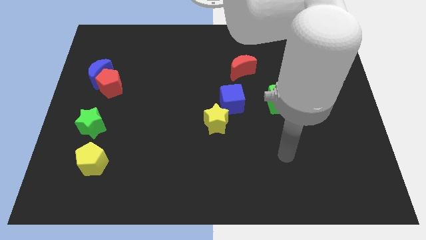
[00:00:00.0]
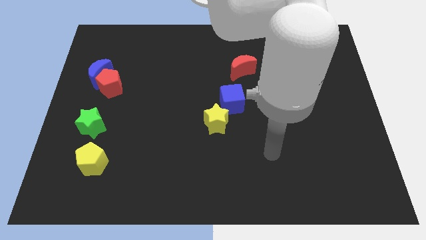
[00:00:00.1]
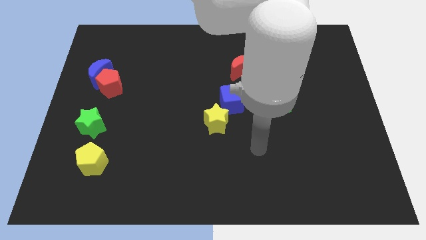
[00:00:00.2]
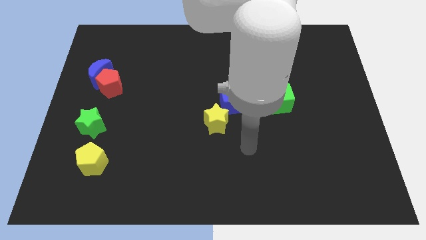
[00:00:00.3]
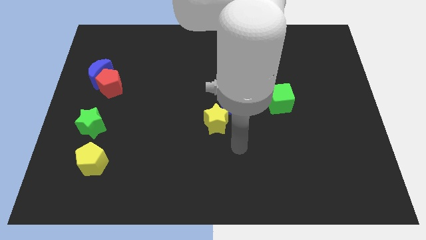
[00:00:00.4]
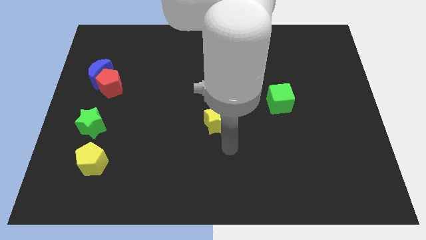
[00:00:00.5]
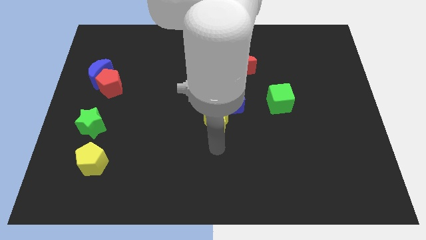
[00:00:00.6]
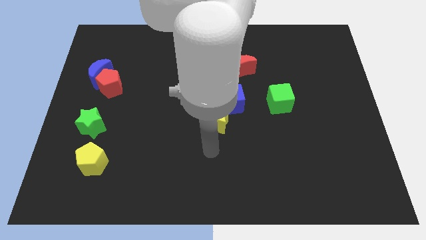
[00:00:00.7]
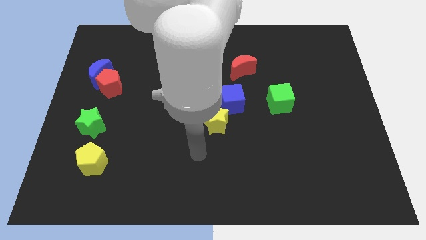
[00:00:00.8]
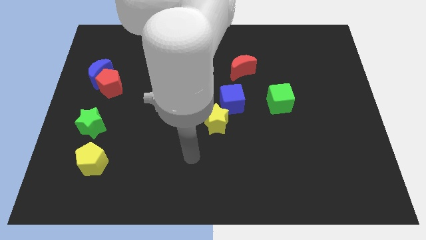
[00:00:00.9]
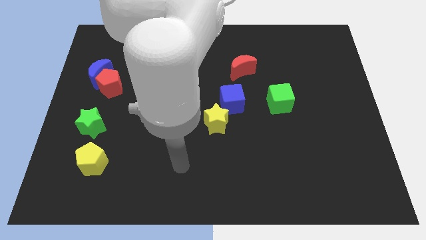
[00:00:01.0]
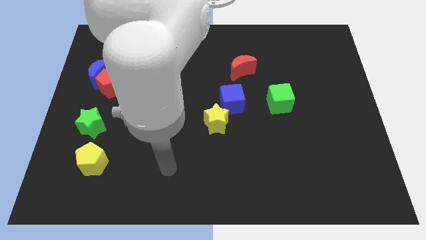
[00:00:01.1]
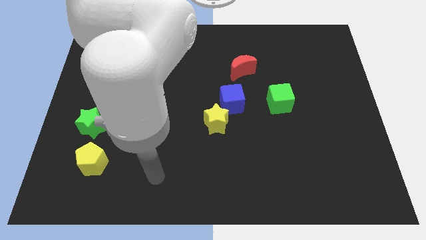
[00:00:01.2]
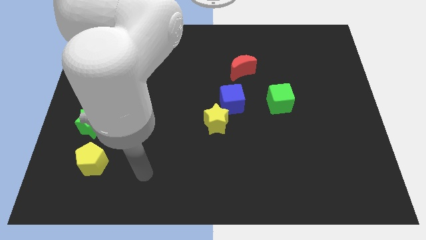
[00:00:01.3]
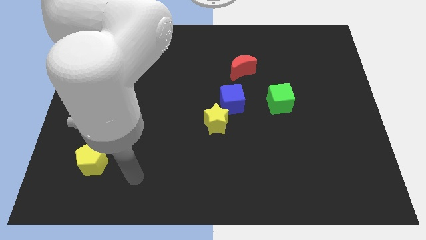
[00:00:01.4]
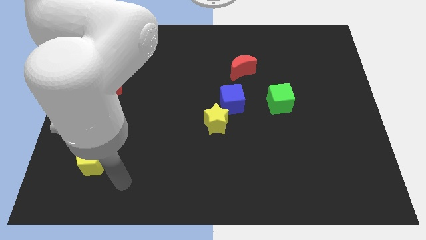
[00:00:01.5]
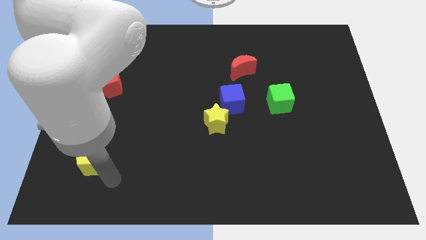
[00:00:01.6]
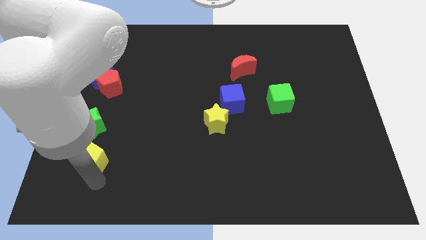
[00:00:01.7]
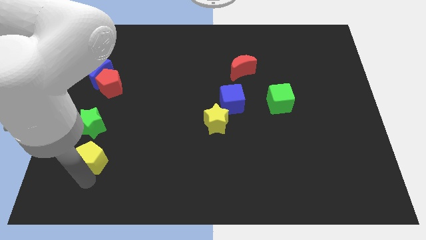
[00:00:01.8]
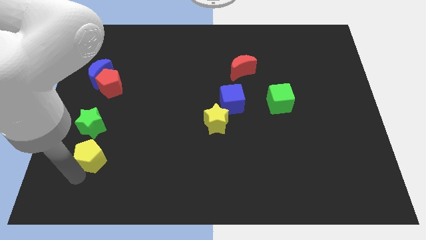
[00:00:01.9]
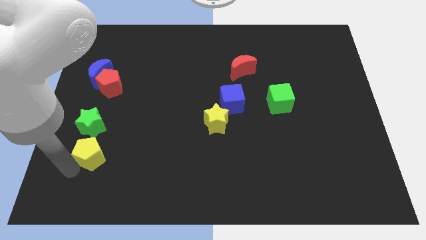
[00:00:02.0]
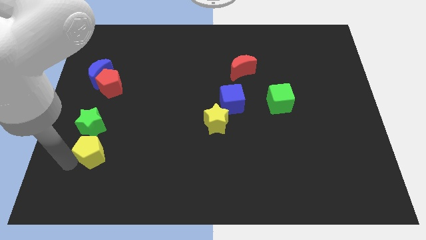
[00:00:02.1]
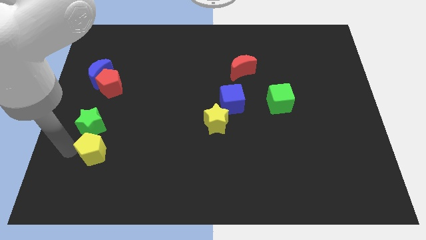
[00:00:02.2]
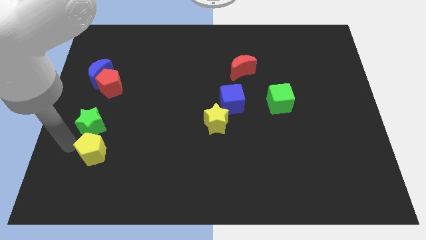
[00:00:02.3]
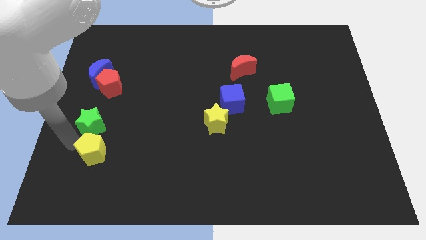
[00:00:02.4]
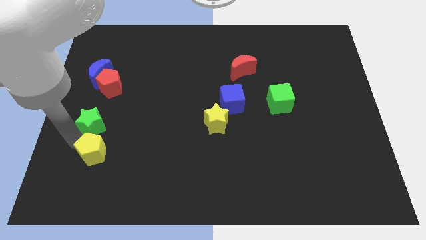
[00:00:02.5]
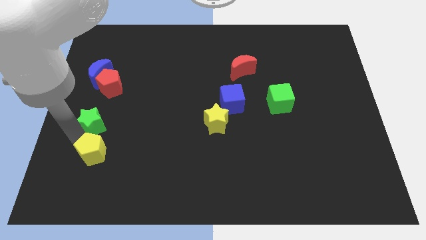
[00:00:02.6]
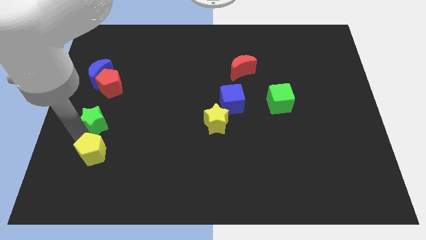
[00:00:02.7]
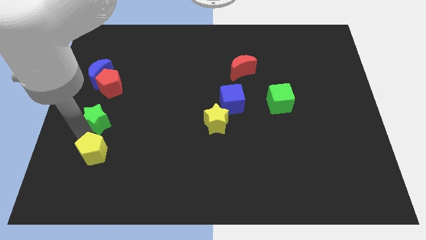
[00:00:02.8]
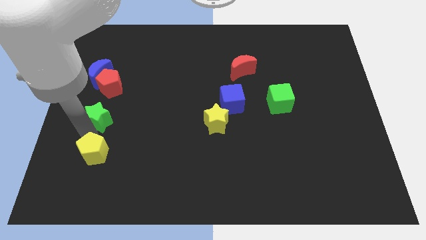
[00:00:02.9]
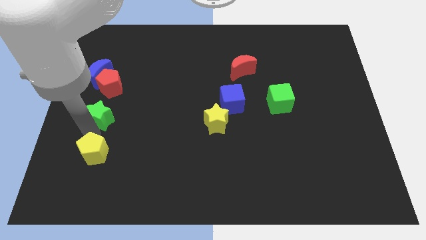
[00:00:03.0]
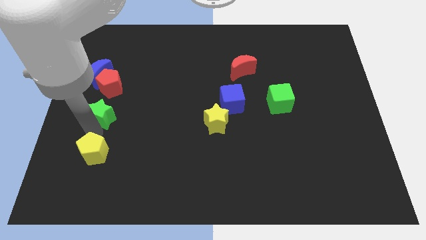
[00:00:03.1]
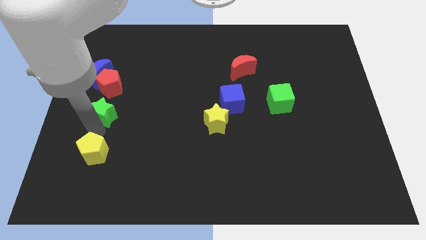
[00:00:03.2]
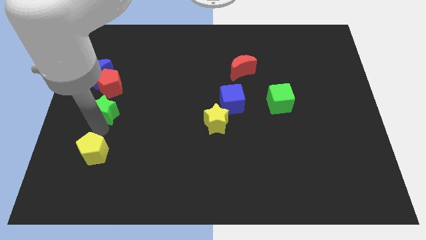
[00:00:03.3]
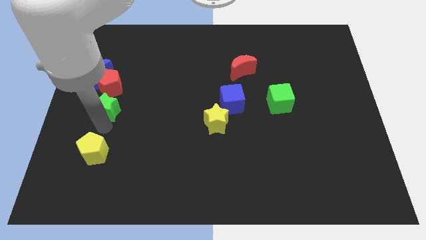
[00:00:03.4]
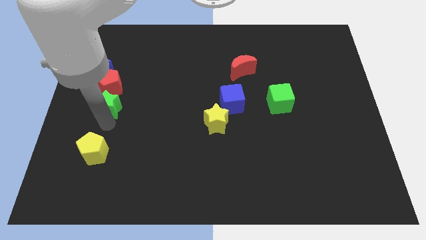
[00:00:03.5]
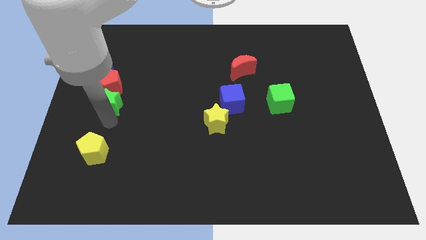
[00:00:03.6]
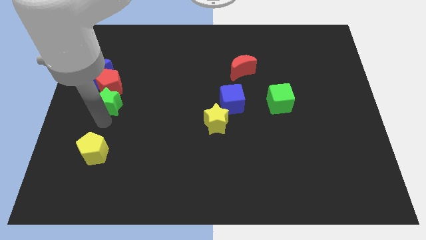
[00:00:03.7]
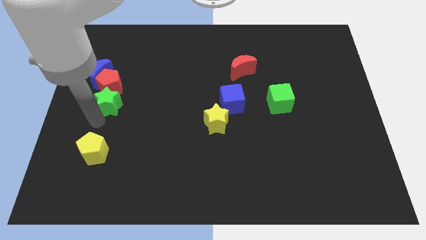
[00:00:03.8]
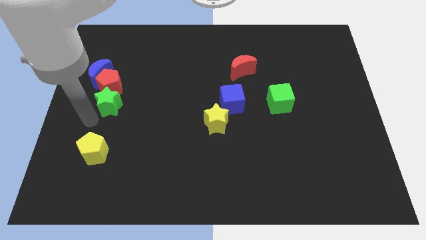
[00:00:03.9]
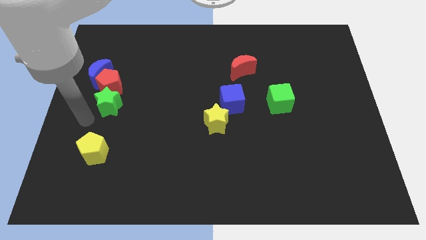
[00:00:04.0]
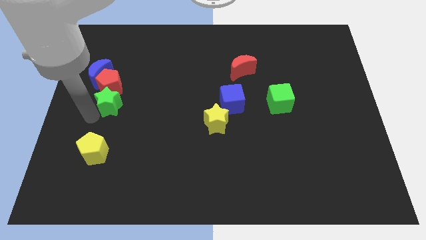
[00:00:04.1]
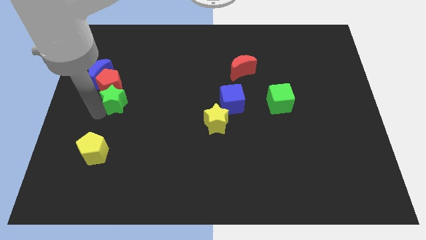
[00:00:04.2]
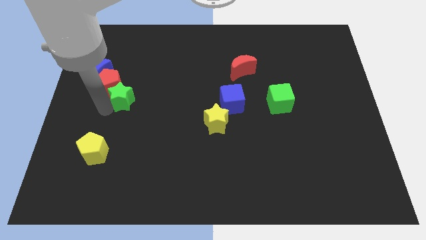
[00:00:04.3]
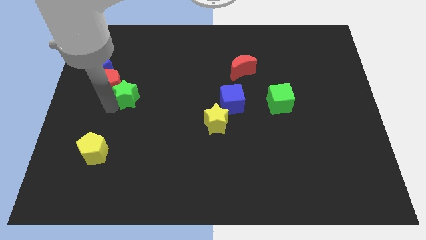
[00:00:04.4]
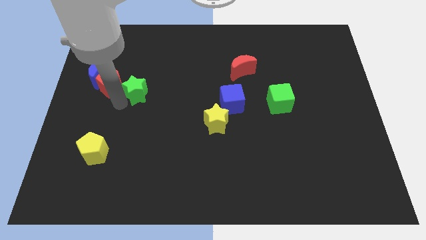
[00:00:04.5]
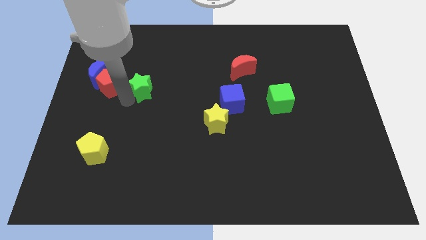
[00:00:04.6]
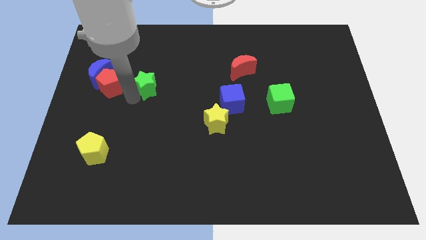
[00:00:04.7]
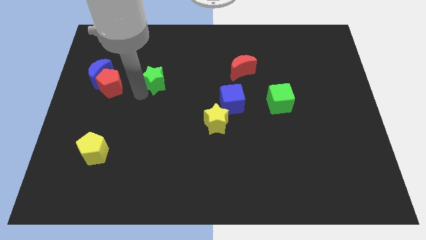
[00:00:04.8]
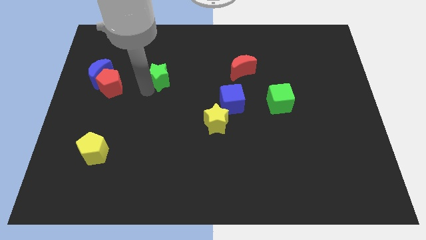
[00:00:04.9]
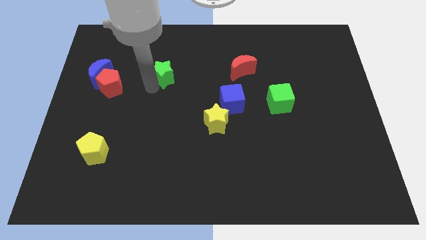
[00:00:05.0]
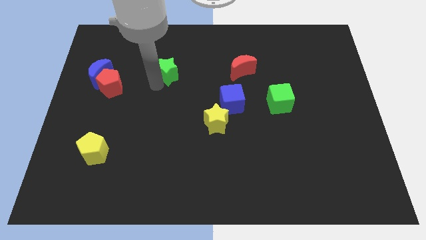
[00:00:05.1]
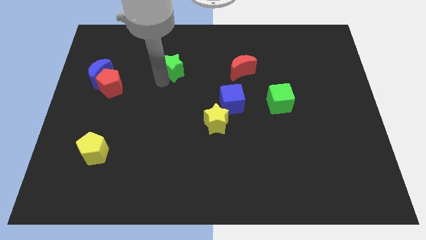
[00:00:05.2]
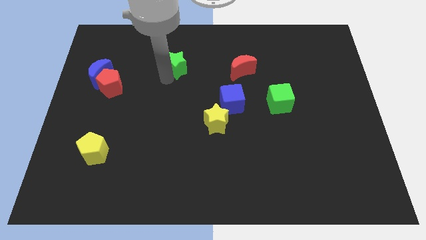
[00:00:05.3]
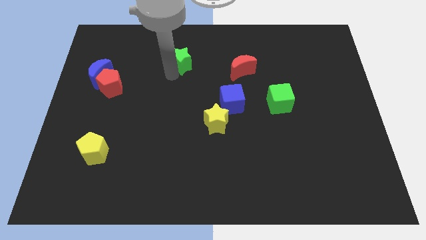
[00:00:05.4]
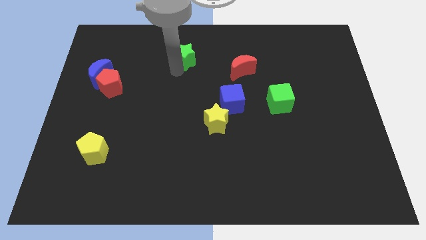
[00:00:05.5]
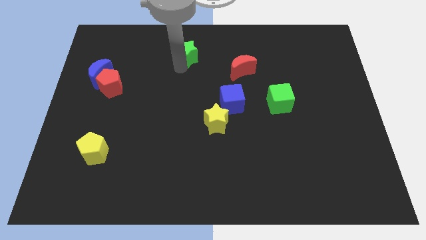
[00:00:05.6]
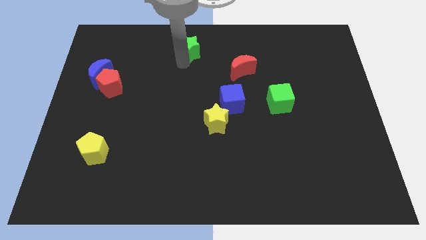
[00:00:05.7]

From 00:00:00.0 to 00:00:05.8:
put the green star to the towards your base

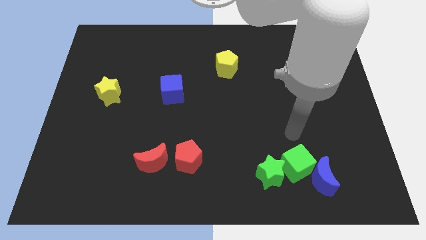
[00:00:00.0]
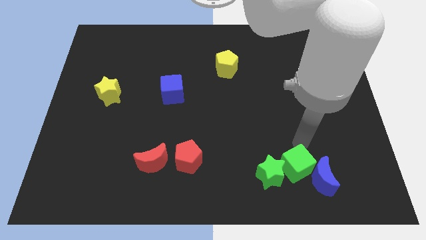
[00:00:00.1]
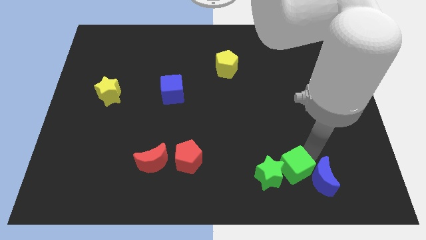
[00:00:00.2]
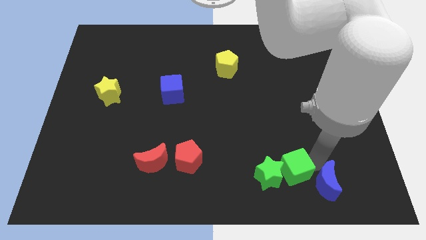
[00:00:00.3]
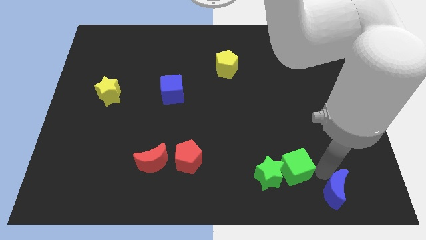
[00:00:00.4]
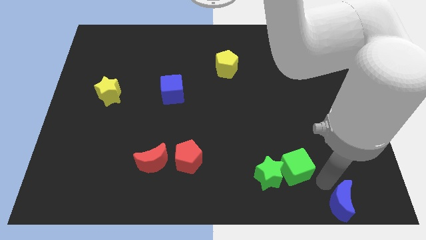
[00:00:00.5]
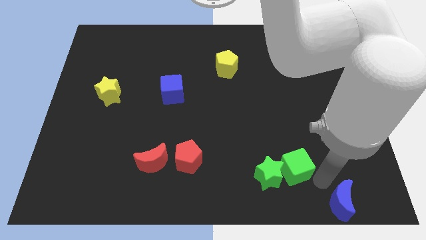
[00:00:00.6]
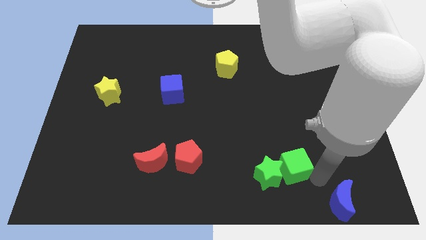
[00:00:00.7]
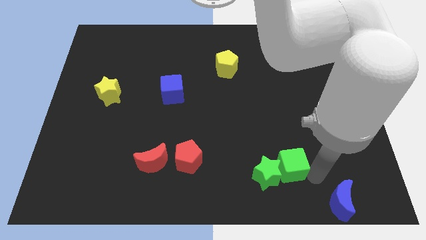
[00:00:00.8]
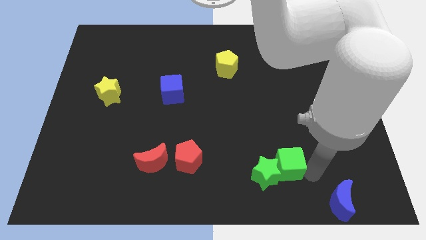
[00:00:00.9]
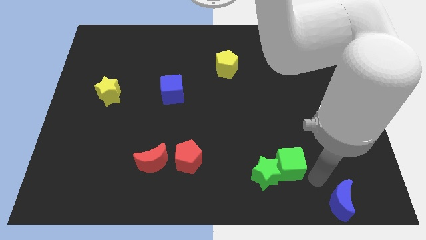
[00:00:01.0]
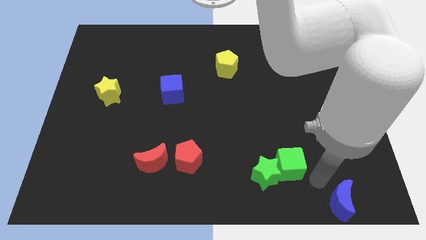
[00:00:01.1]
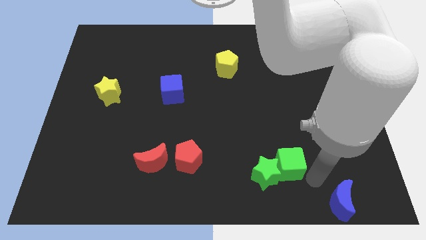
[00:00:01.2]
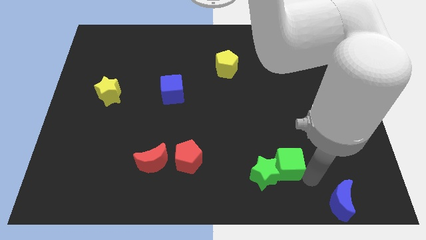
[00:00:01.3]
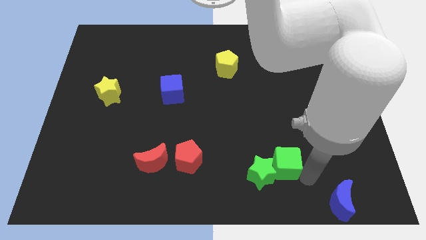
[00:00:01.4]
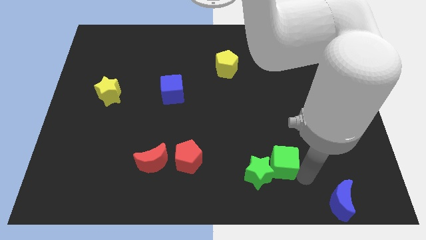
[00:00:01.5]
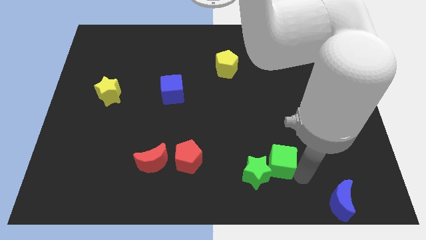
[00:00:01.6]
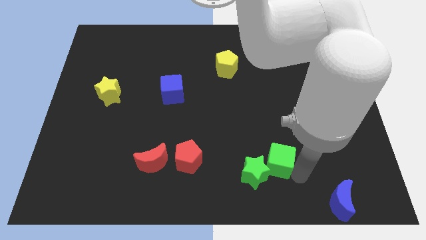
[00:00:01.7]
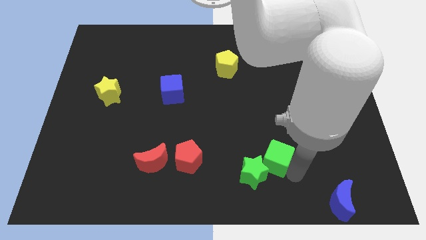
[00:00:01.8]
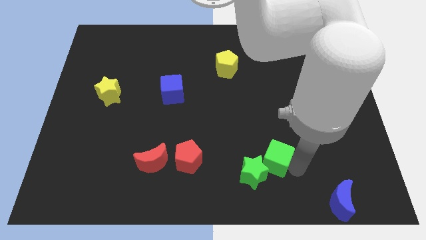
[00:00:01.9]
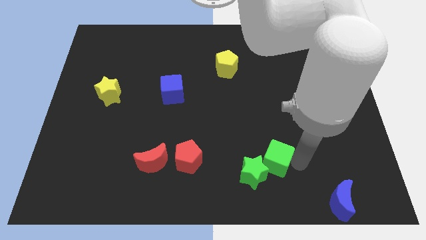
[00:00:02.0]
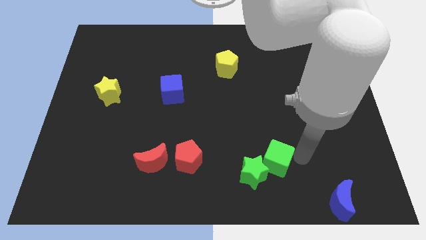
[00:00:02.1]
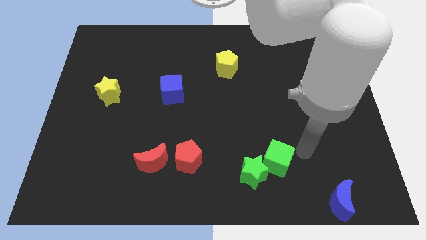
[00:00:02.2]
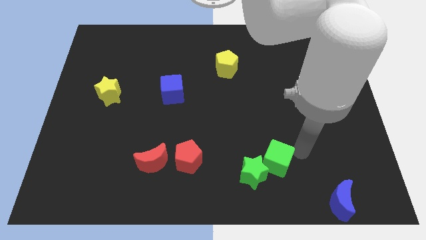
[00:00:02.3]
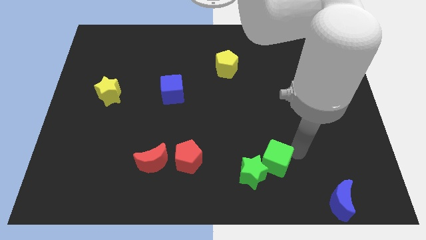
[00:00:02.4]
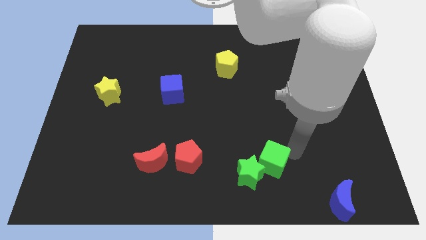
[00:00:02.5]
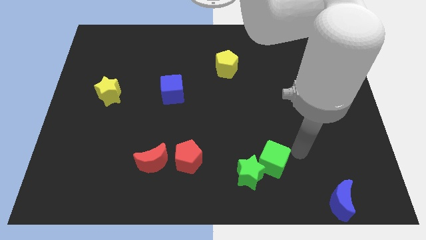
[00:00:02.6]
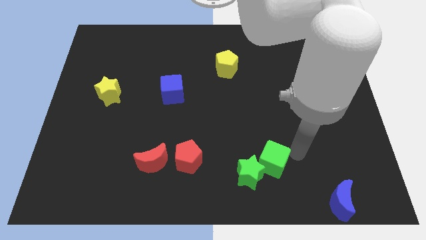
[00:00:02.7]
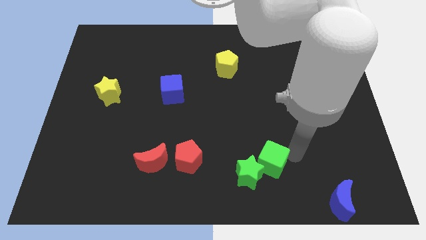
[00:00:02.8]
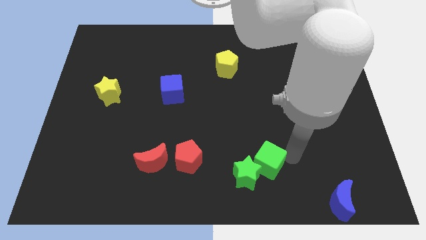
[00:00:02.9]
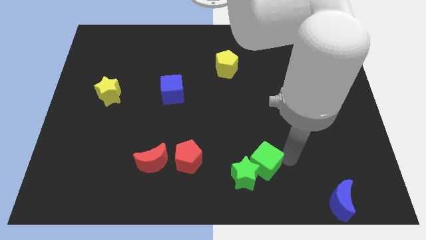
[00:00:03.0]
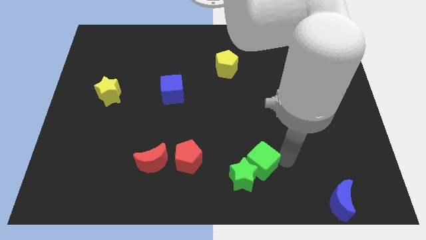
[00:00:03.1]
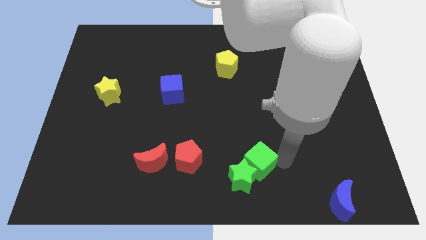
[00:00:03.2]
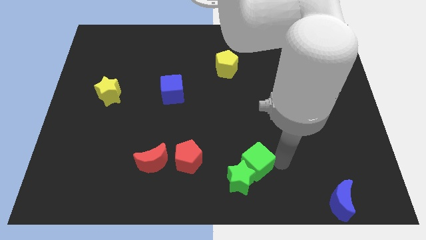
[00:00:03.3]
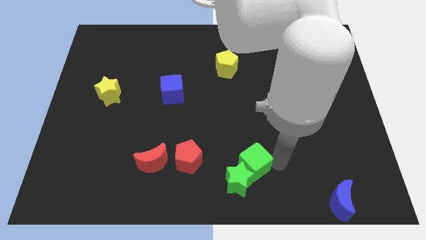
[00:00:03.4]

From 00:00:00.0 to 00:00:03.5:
move the green cube to the bottom side
